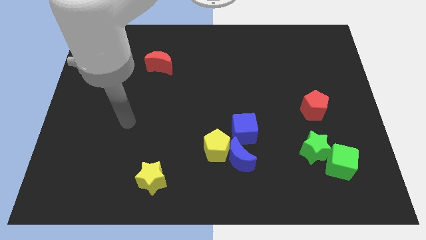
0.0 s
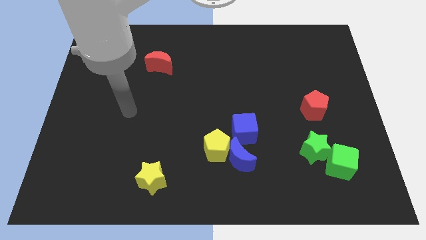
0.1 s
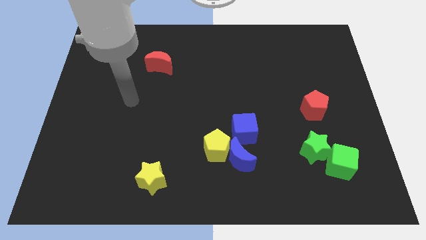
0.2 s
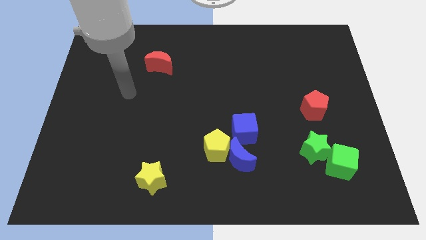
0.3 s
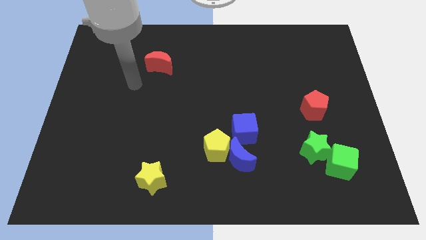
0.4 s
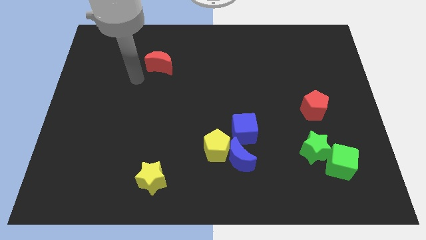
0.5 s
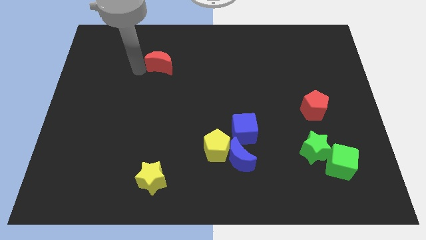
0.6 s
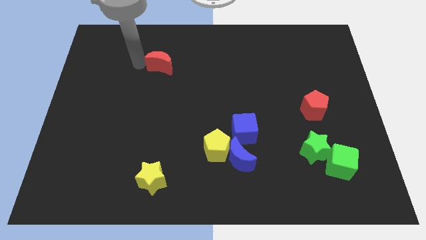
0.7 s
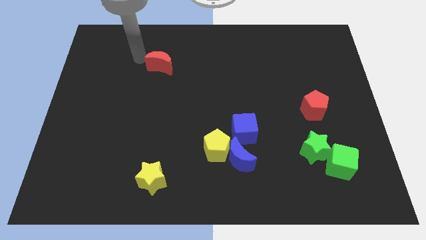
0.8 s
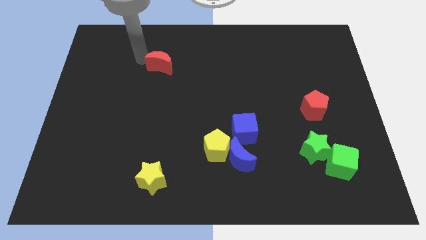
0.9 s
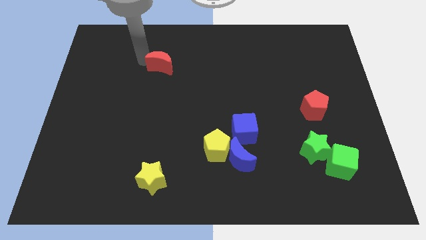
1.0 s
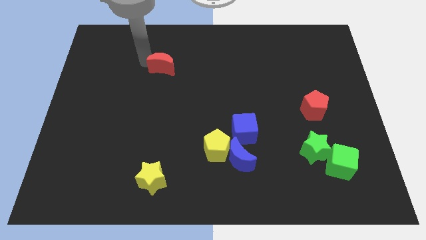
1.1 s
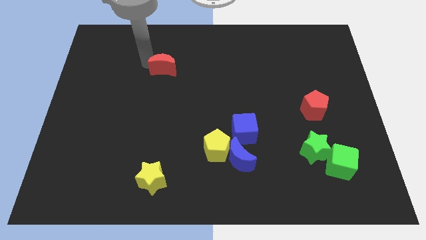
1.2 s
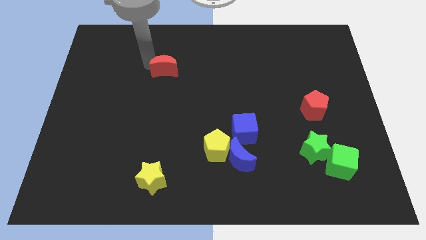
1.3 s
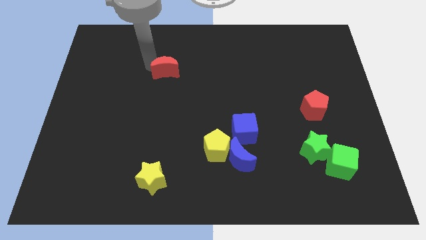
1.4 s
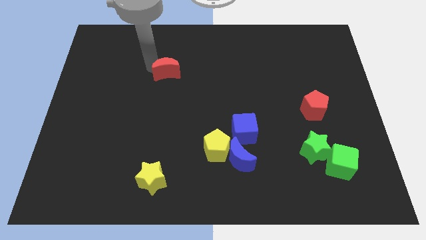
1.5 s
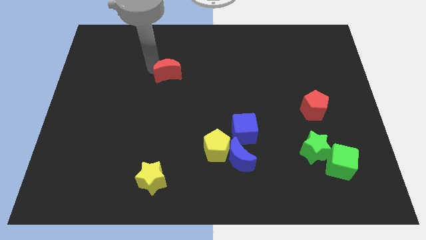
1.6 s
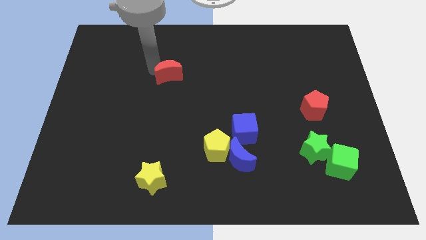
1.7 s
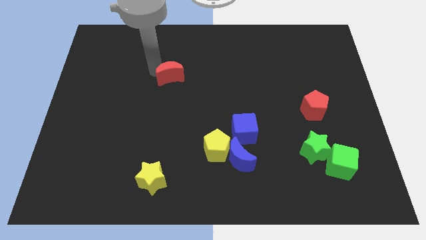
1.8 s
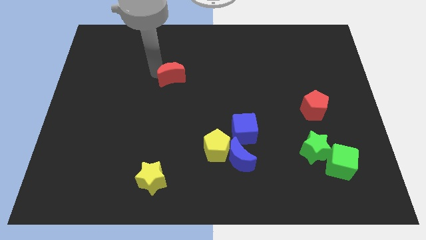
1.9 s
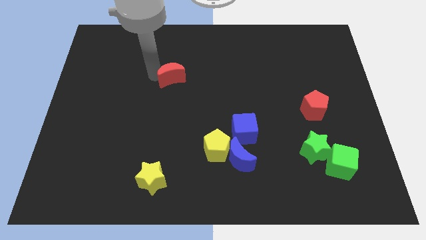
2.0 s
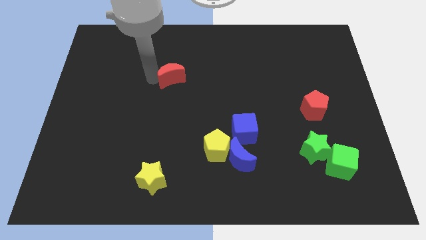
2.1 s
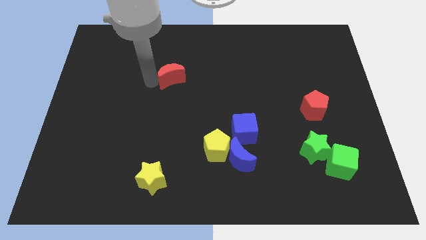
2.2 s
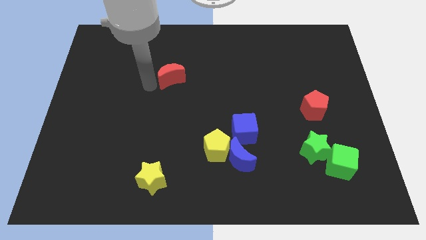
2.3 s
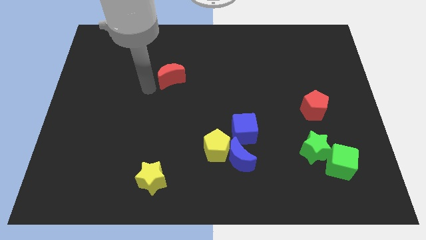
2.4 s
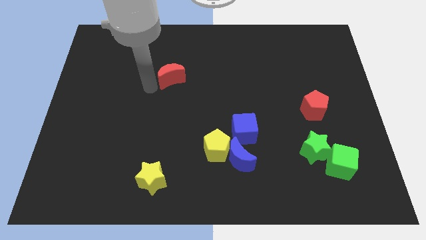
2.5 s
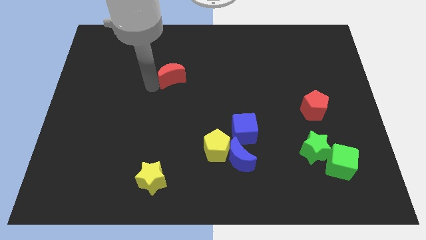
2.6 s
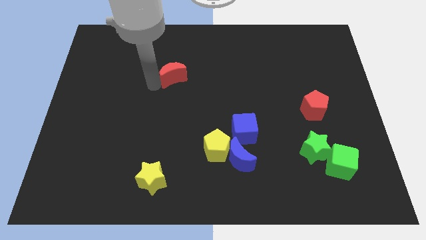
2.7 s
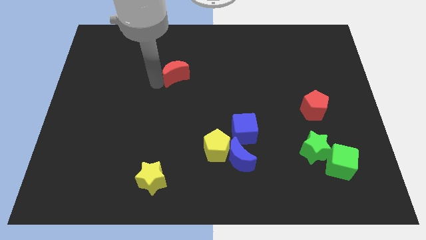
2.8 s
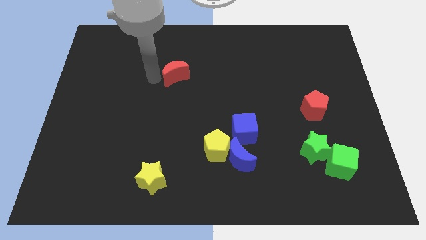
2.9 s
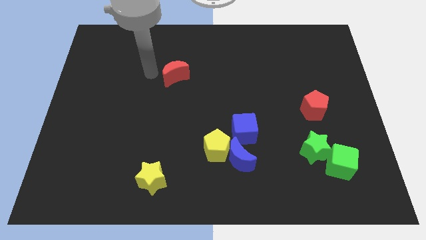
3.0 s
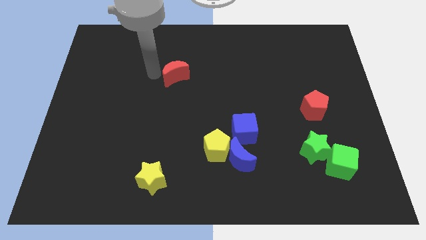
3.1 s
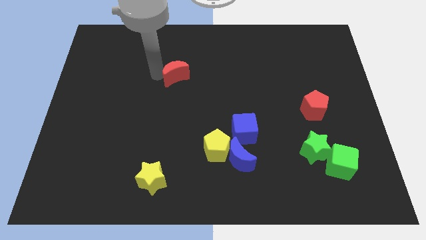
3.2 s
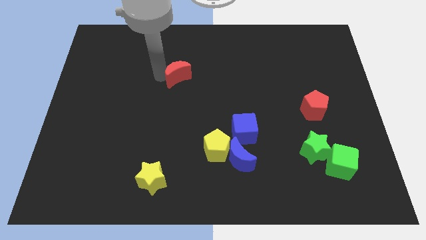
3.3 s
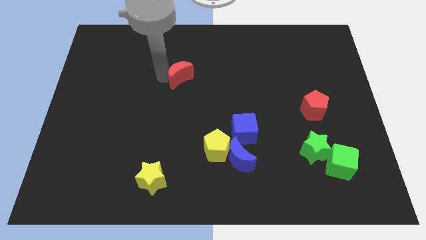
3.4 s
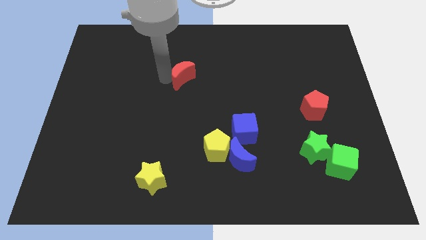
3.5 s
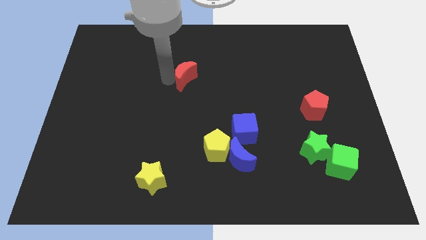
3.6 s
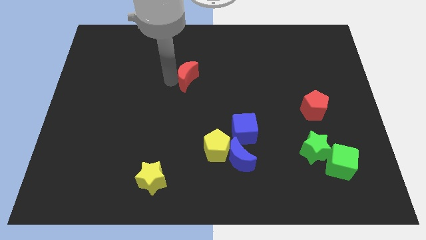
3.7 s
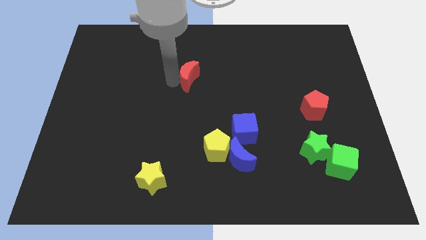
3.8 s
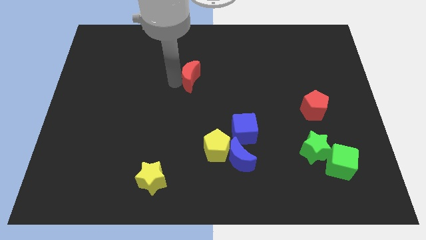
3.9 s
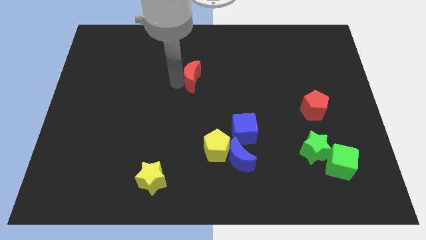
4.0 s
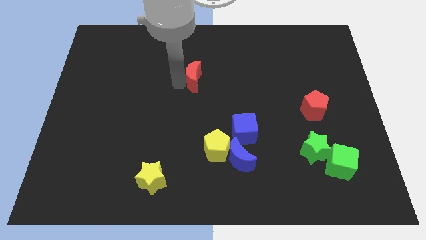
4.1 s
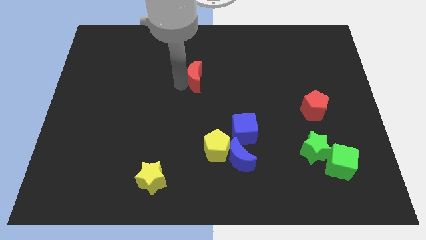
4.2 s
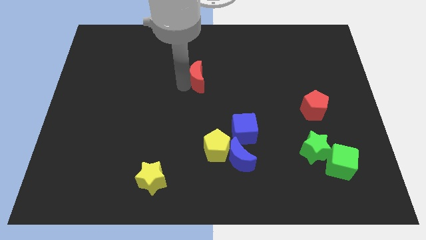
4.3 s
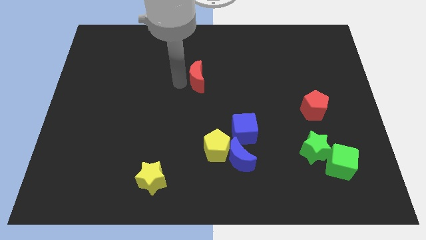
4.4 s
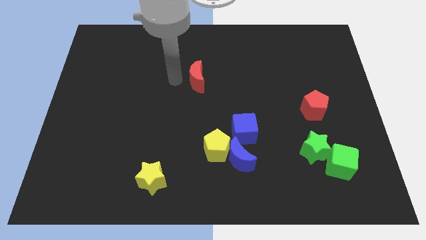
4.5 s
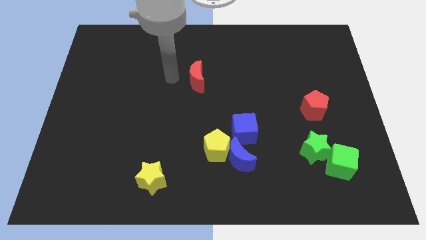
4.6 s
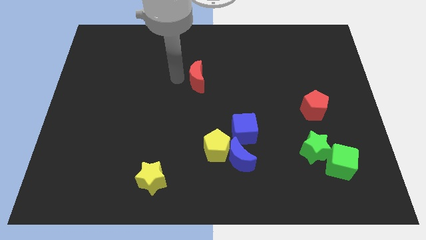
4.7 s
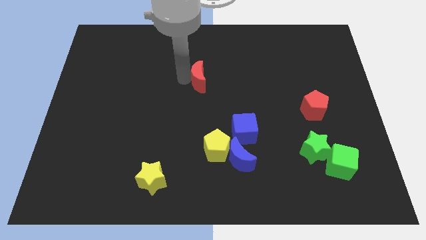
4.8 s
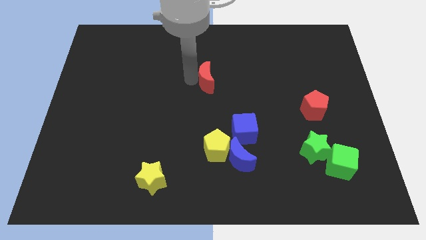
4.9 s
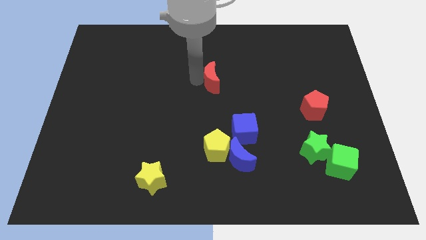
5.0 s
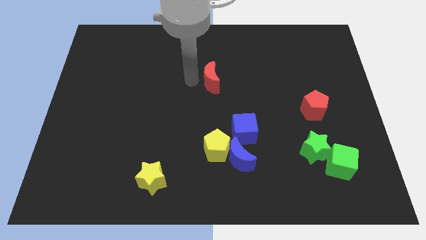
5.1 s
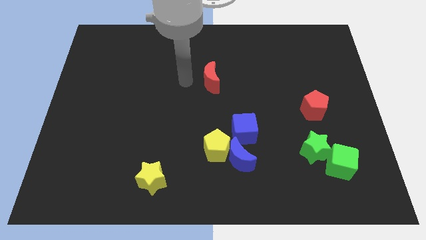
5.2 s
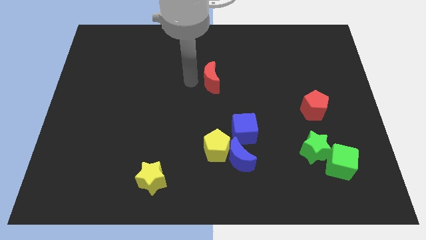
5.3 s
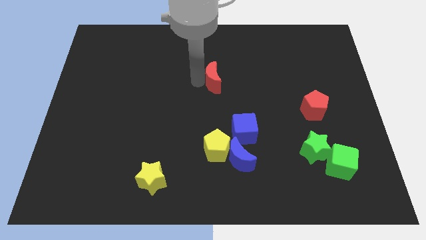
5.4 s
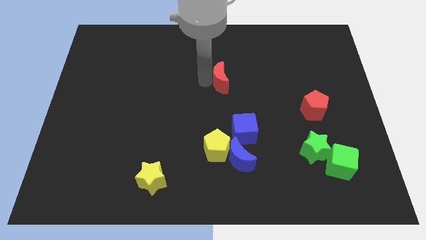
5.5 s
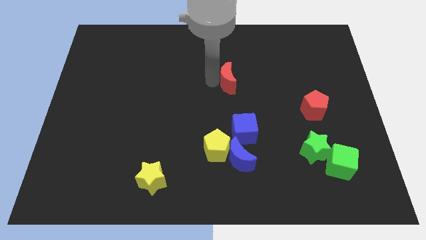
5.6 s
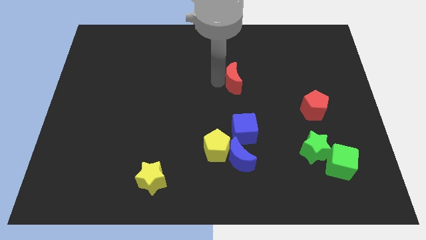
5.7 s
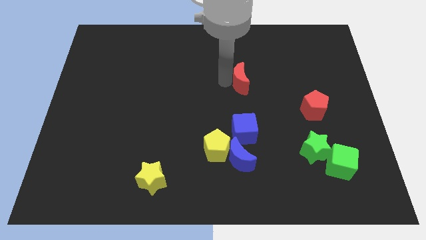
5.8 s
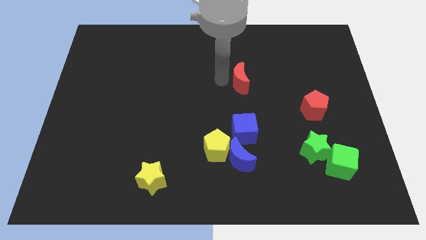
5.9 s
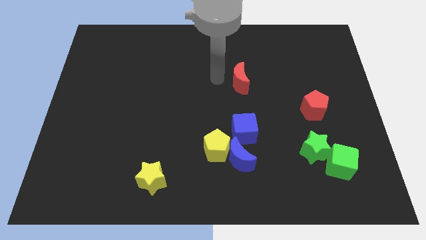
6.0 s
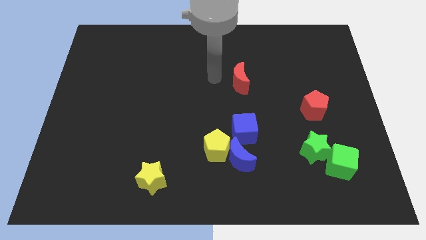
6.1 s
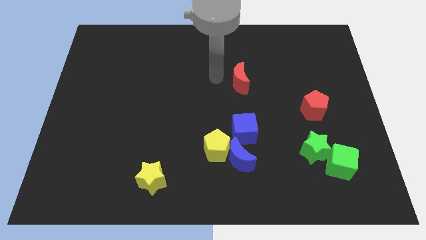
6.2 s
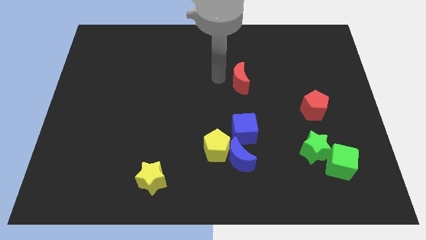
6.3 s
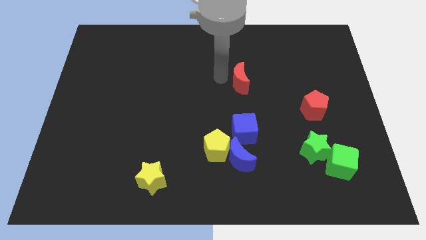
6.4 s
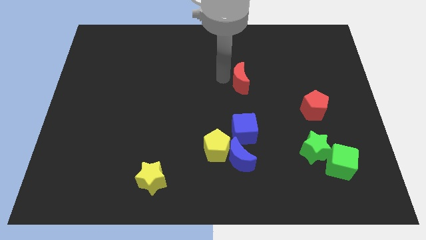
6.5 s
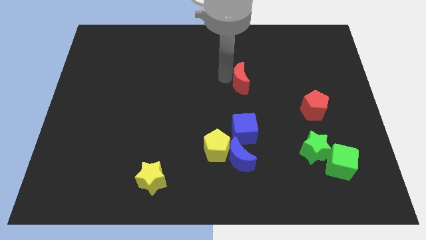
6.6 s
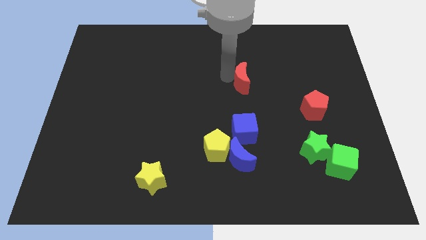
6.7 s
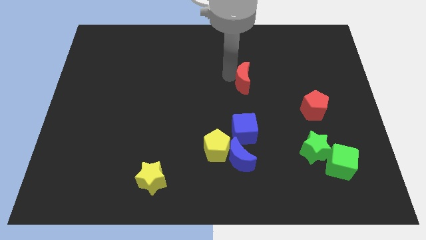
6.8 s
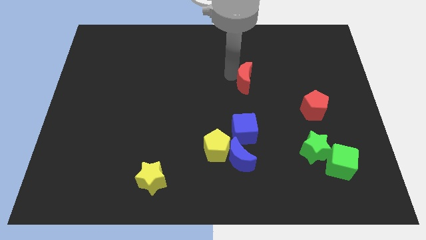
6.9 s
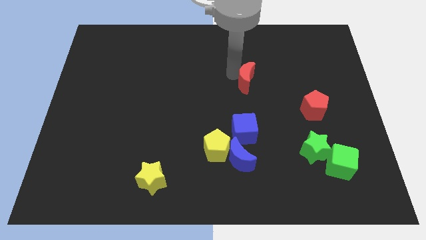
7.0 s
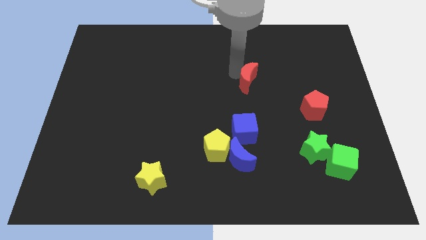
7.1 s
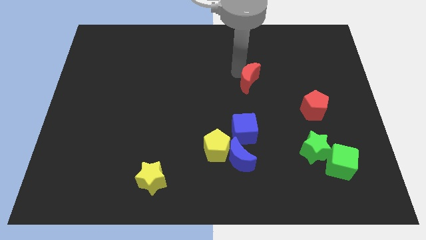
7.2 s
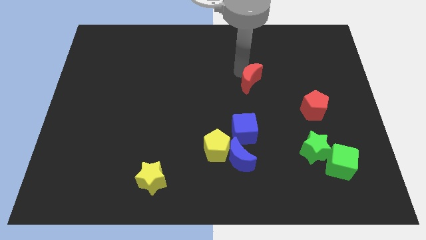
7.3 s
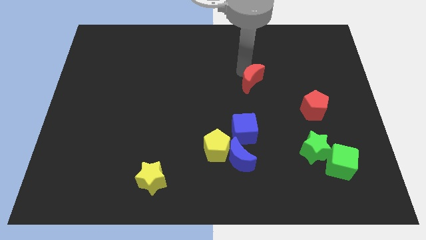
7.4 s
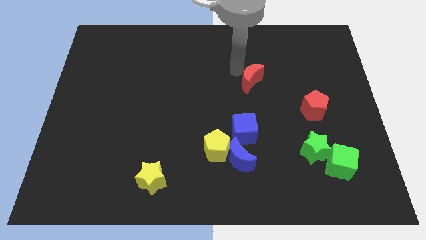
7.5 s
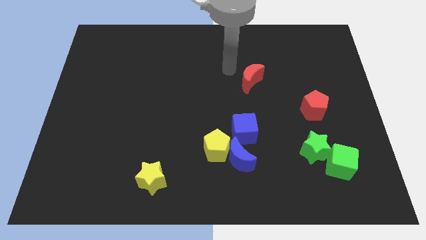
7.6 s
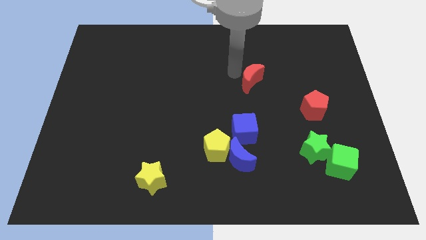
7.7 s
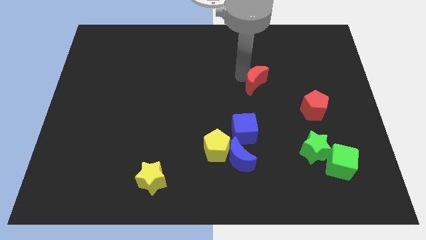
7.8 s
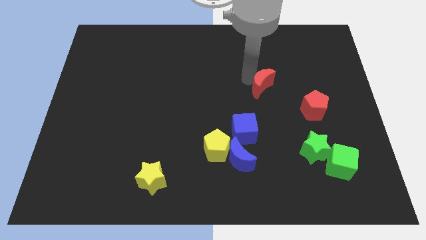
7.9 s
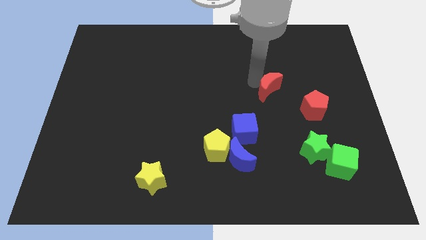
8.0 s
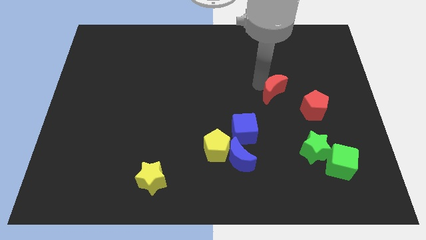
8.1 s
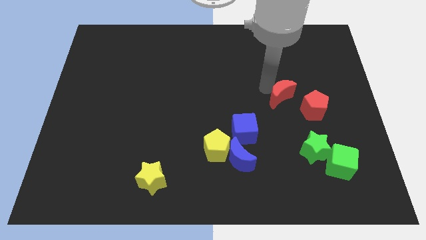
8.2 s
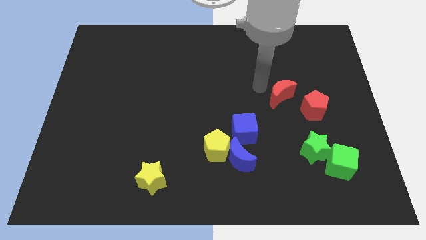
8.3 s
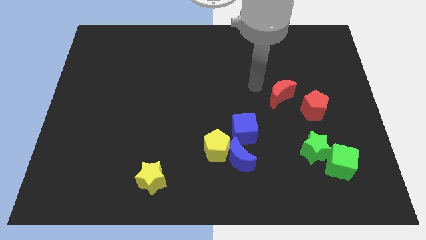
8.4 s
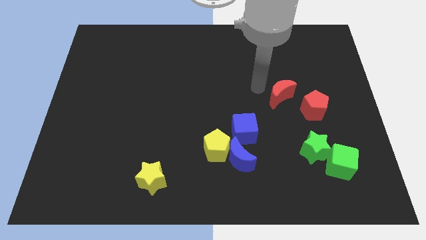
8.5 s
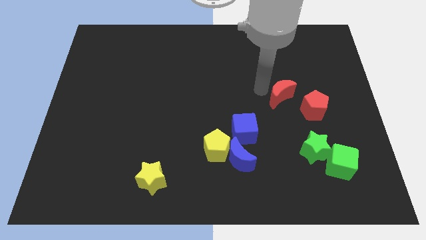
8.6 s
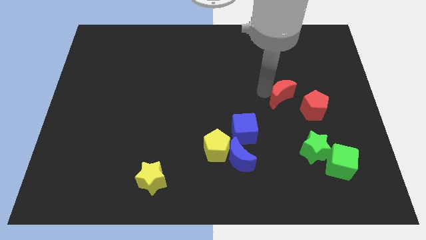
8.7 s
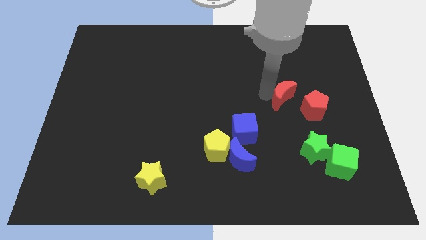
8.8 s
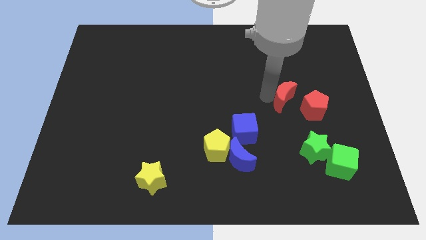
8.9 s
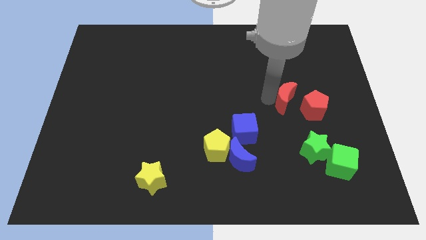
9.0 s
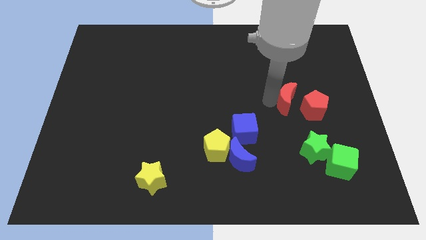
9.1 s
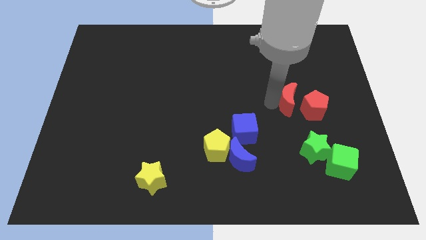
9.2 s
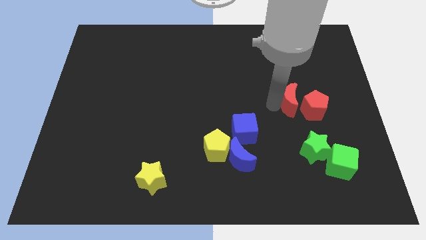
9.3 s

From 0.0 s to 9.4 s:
move the red moon to the red pentagon
